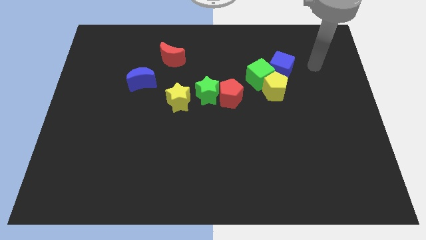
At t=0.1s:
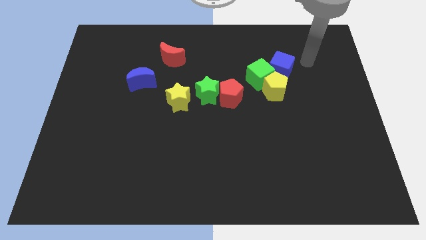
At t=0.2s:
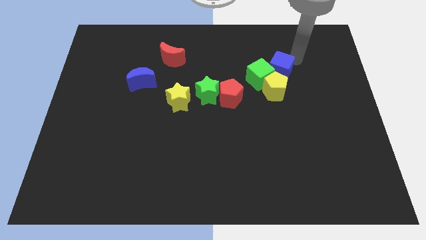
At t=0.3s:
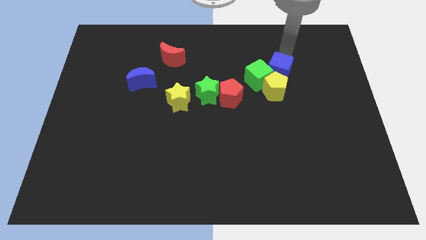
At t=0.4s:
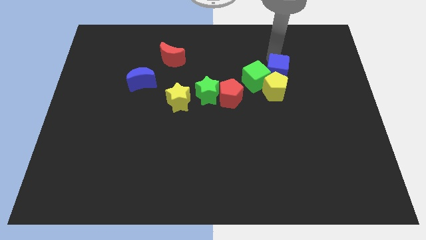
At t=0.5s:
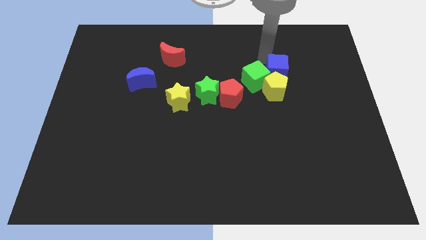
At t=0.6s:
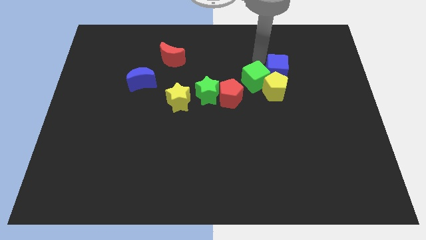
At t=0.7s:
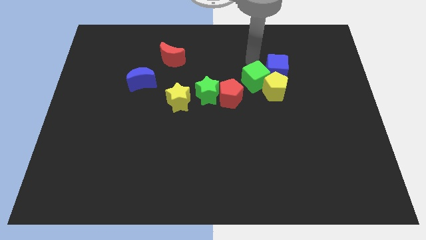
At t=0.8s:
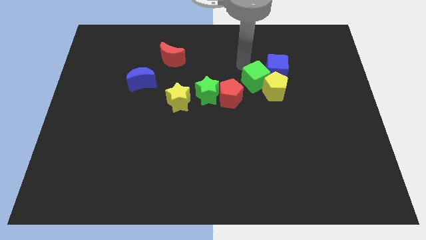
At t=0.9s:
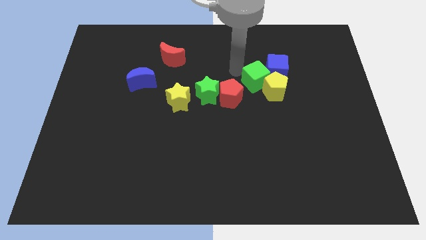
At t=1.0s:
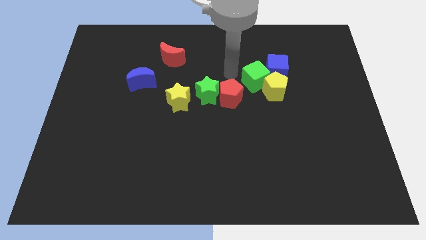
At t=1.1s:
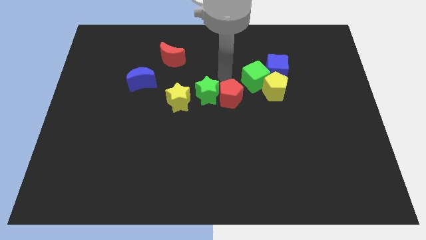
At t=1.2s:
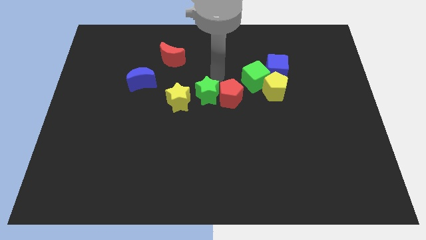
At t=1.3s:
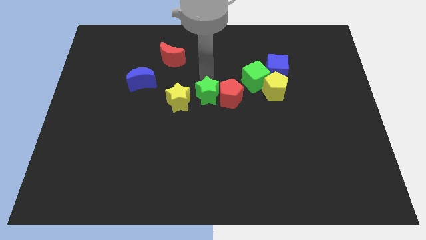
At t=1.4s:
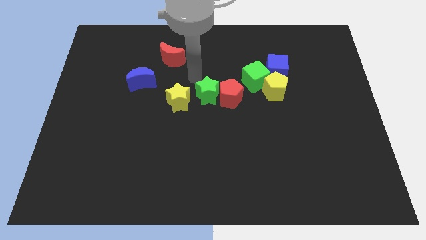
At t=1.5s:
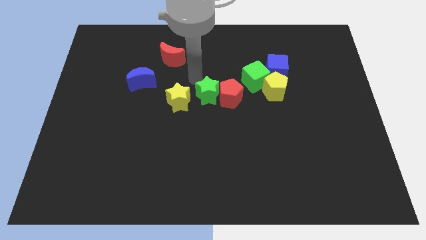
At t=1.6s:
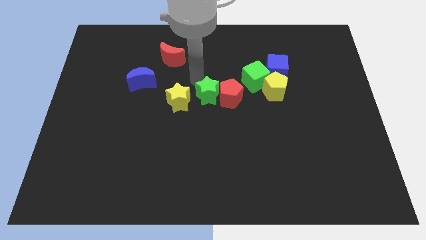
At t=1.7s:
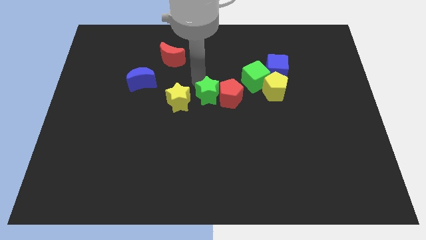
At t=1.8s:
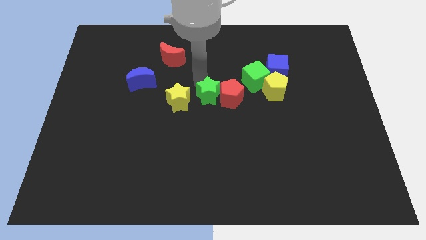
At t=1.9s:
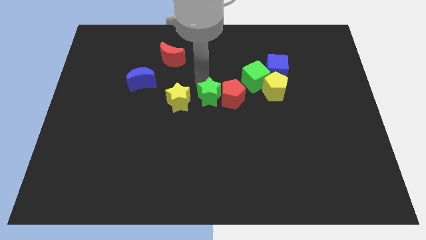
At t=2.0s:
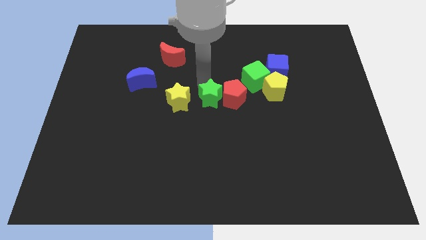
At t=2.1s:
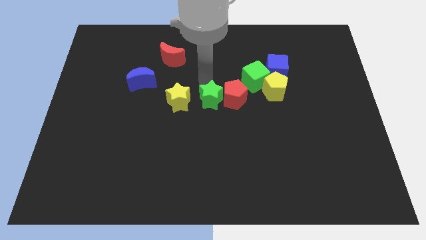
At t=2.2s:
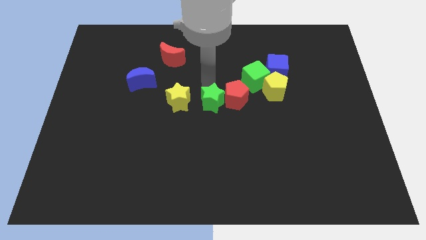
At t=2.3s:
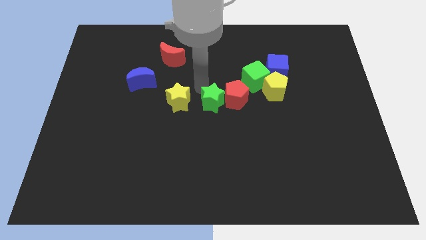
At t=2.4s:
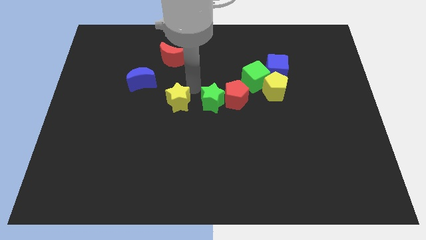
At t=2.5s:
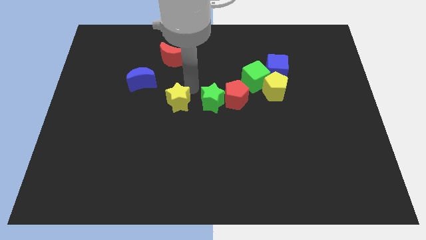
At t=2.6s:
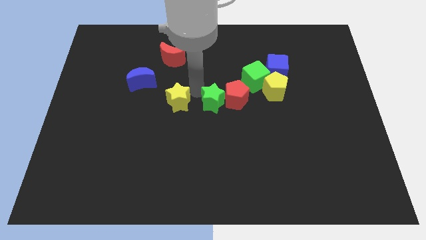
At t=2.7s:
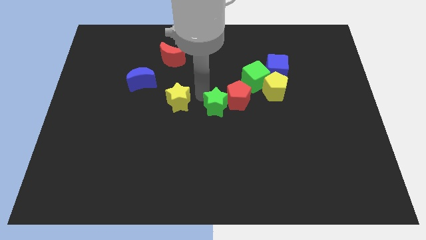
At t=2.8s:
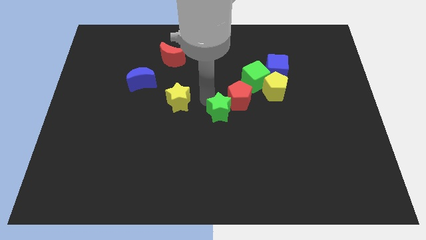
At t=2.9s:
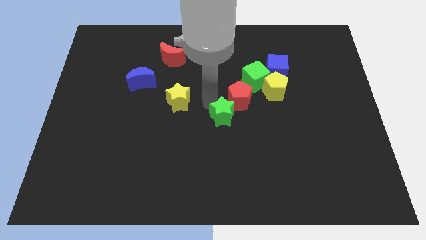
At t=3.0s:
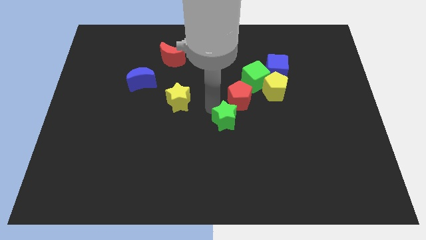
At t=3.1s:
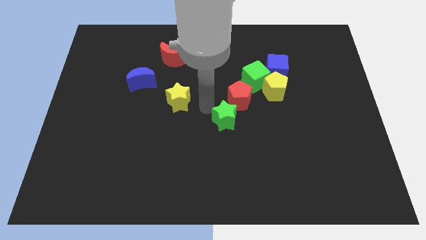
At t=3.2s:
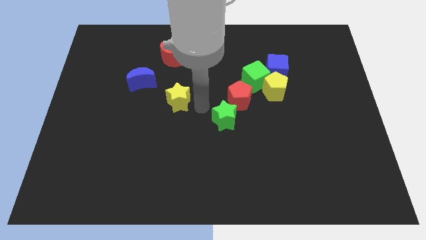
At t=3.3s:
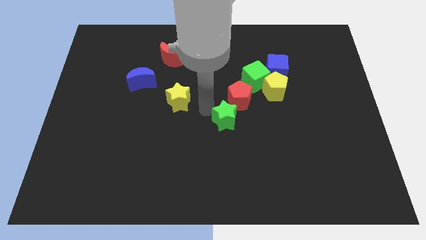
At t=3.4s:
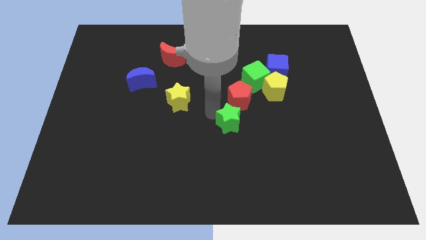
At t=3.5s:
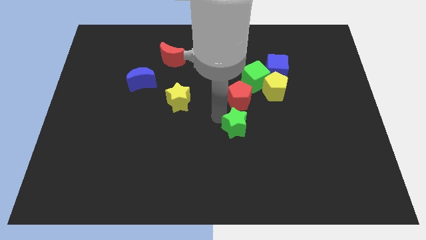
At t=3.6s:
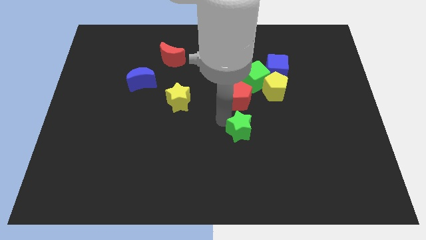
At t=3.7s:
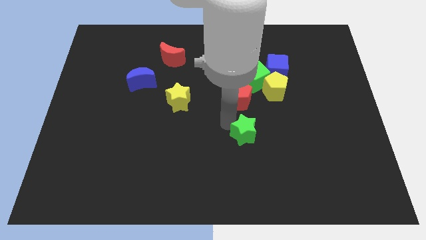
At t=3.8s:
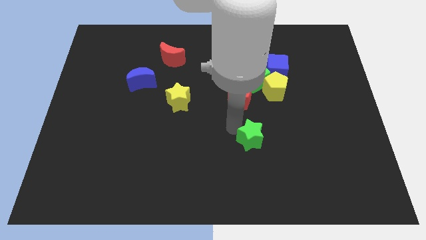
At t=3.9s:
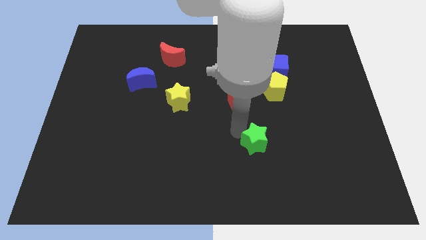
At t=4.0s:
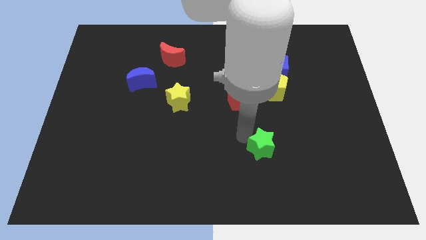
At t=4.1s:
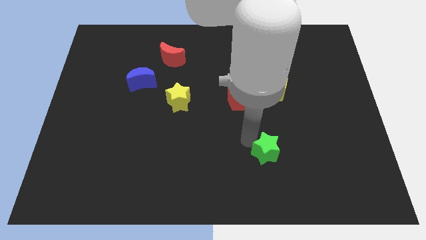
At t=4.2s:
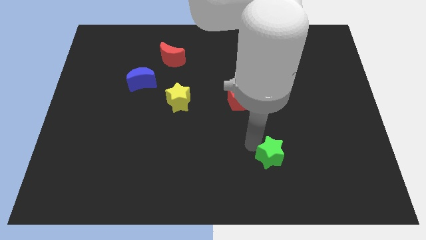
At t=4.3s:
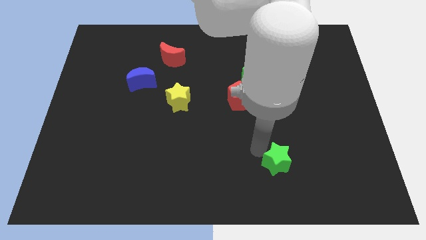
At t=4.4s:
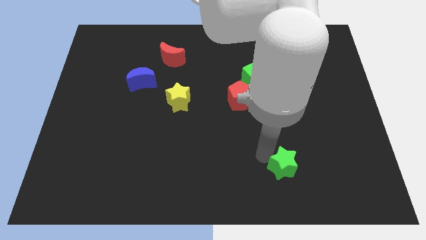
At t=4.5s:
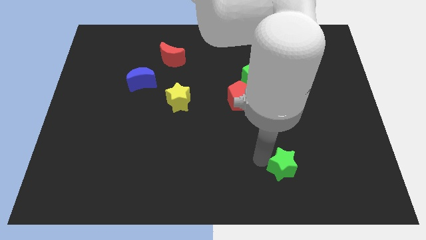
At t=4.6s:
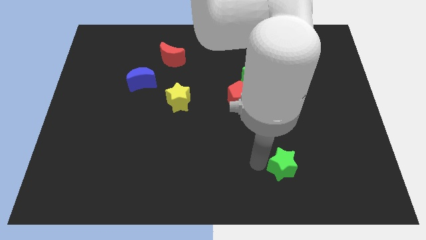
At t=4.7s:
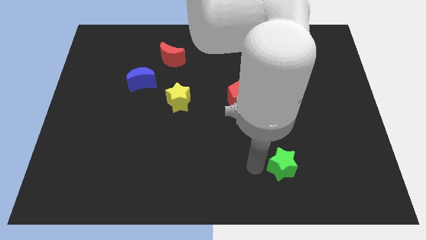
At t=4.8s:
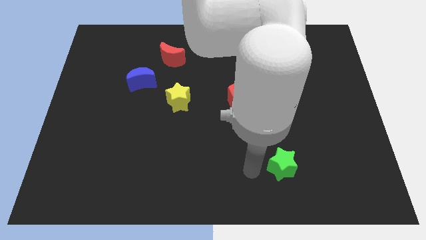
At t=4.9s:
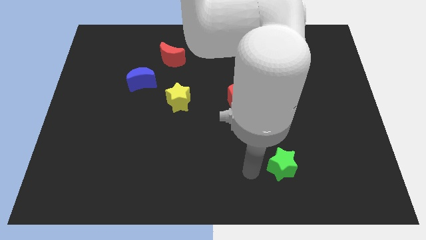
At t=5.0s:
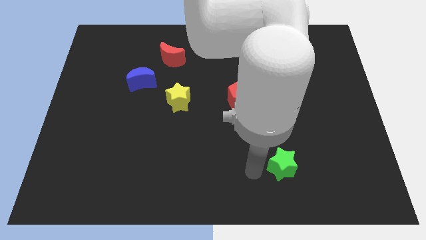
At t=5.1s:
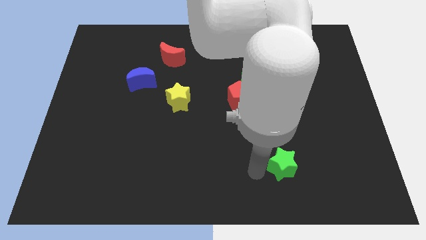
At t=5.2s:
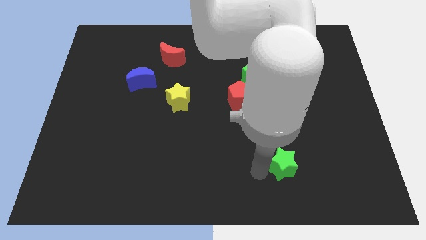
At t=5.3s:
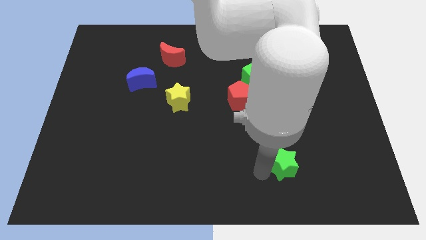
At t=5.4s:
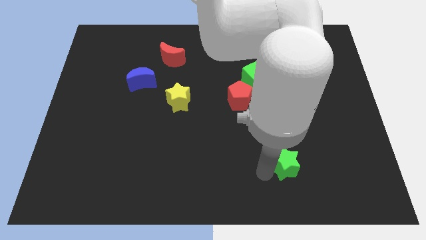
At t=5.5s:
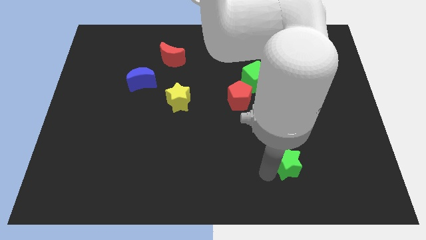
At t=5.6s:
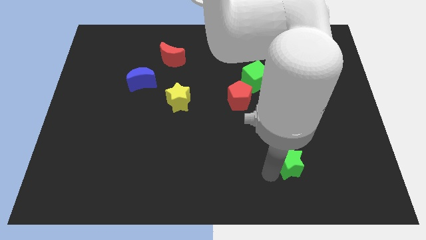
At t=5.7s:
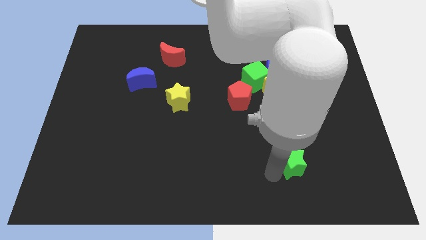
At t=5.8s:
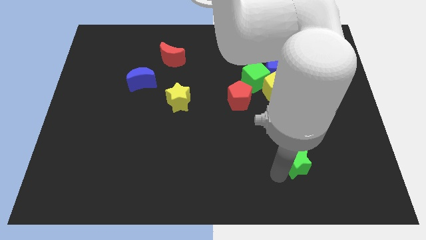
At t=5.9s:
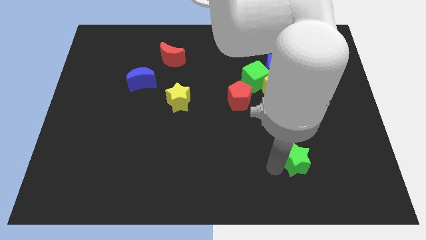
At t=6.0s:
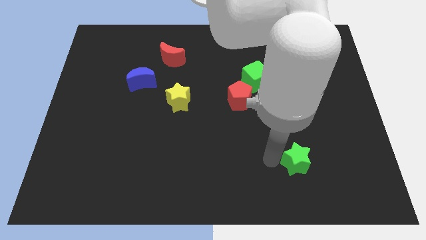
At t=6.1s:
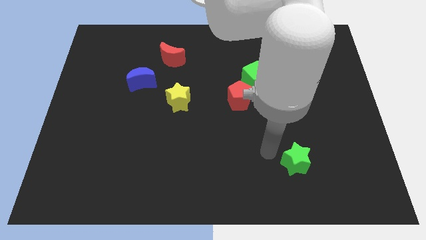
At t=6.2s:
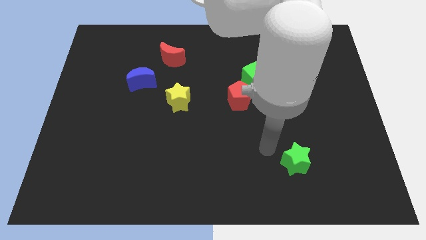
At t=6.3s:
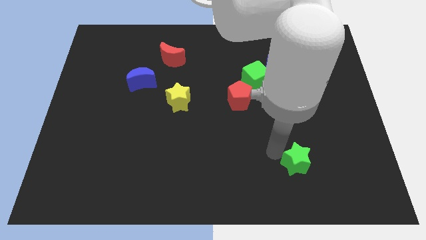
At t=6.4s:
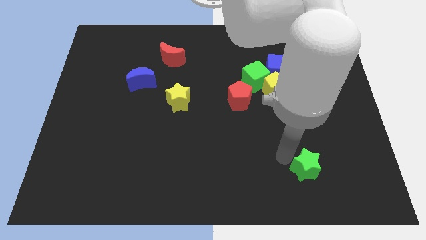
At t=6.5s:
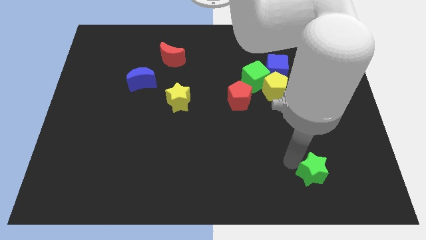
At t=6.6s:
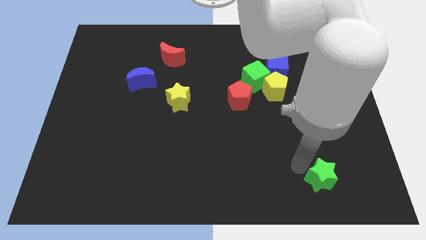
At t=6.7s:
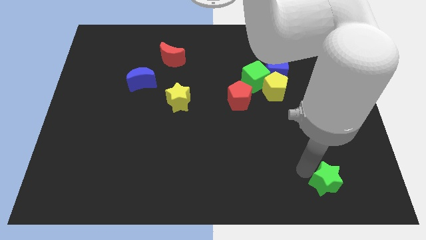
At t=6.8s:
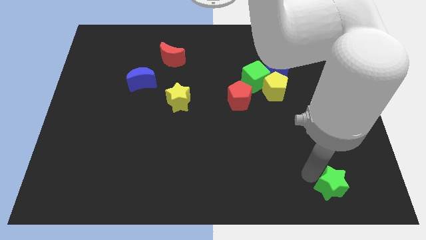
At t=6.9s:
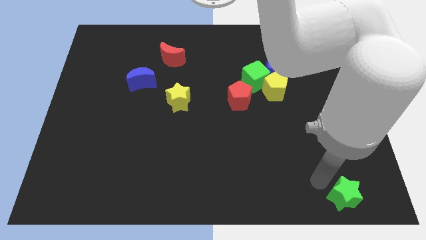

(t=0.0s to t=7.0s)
put the green star to the bottom right corner
